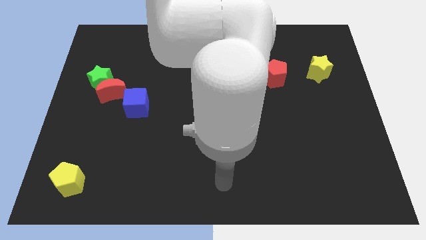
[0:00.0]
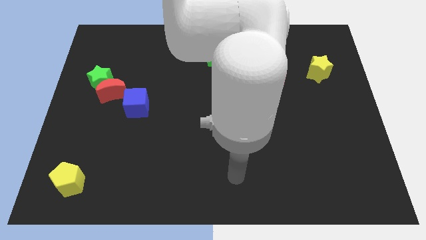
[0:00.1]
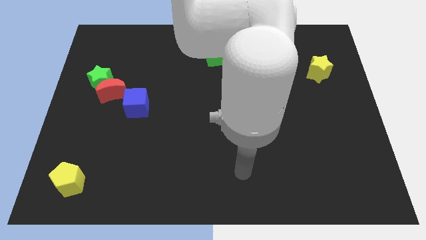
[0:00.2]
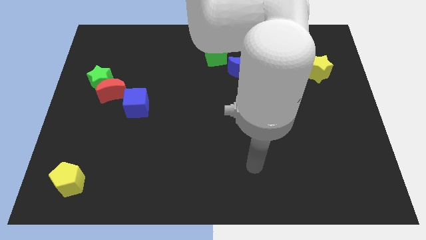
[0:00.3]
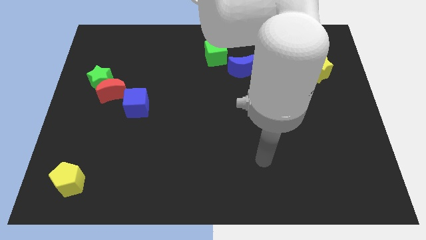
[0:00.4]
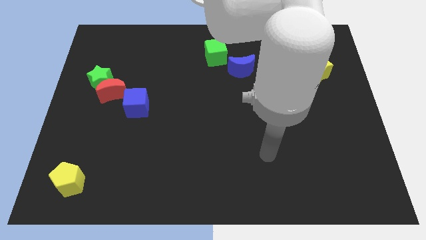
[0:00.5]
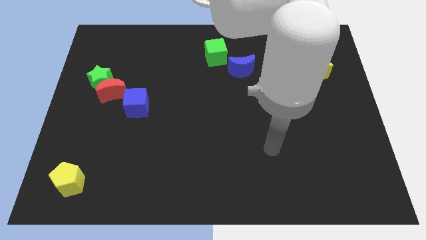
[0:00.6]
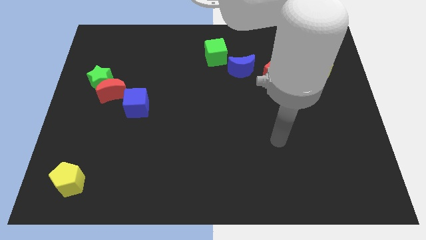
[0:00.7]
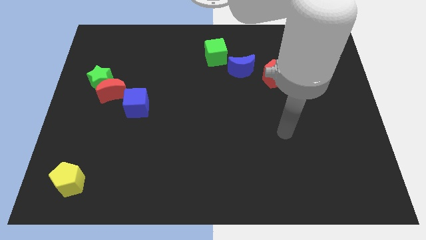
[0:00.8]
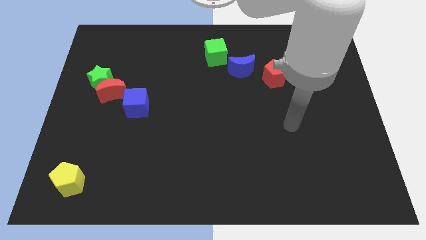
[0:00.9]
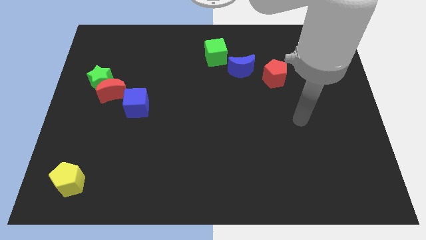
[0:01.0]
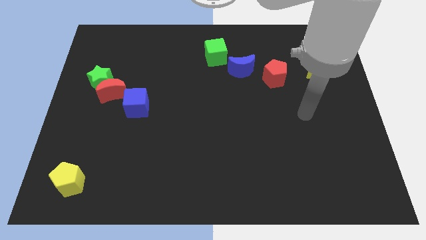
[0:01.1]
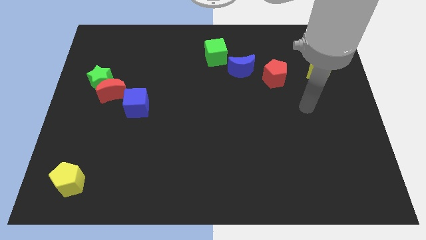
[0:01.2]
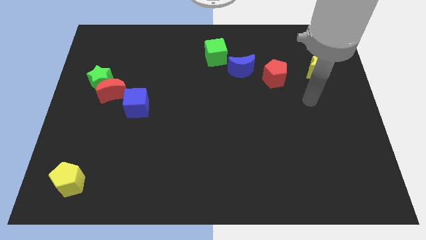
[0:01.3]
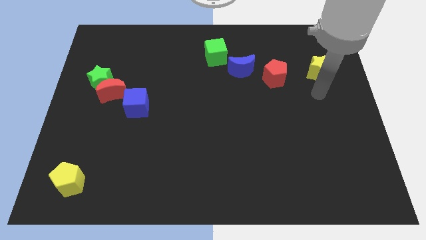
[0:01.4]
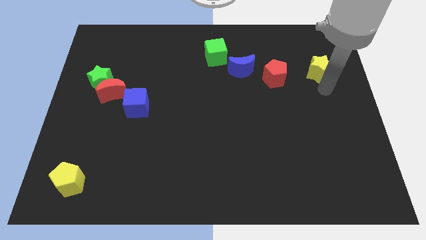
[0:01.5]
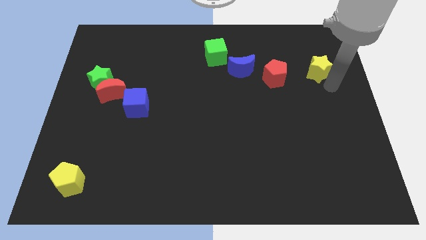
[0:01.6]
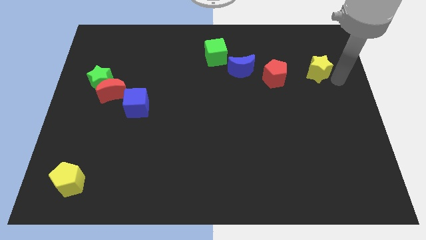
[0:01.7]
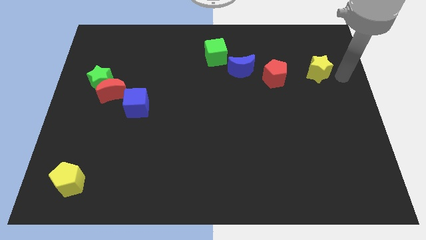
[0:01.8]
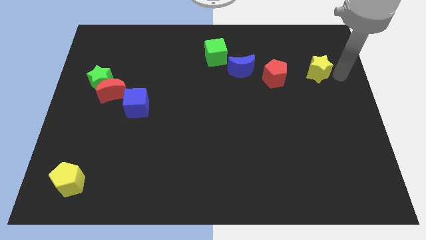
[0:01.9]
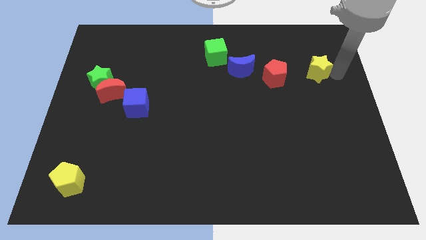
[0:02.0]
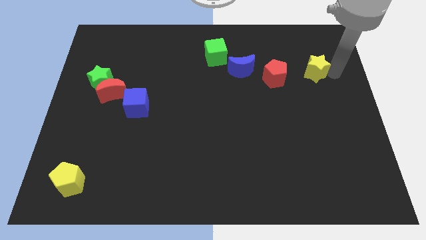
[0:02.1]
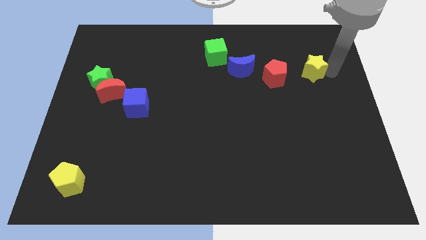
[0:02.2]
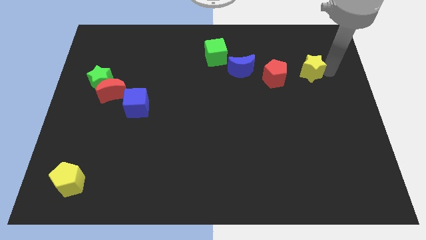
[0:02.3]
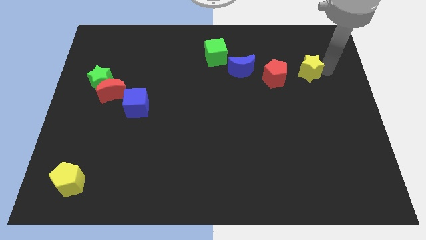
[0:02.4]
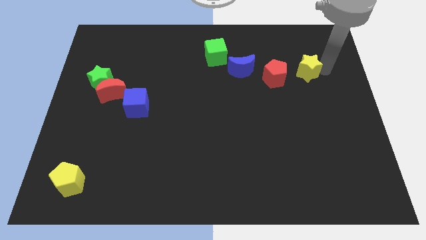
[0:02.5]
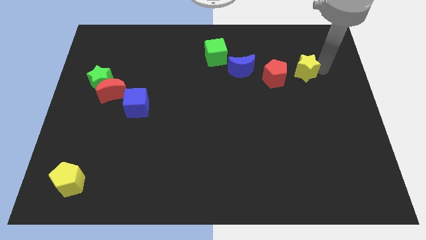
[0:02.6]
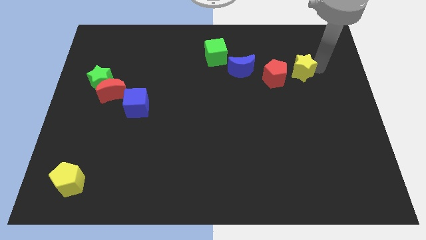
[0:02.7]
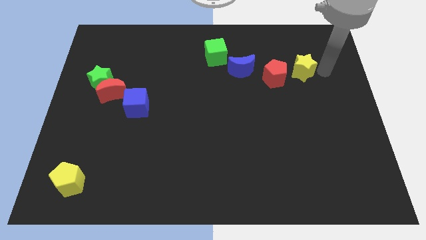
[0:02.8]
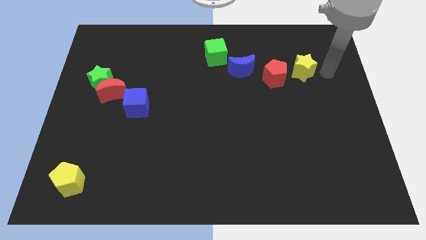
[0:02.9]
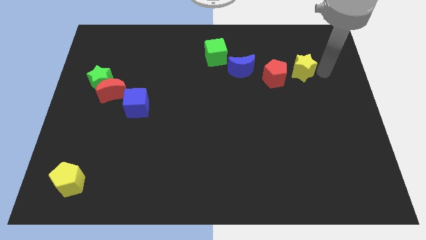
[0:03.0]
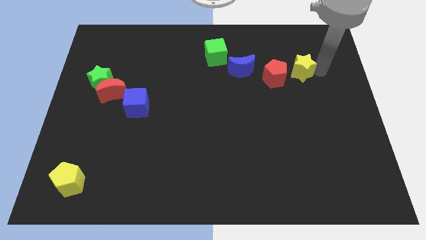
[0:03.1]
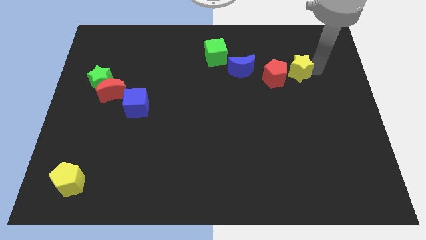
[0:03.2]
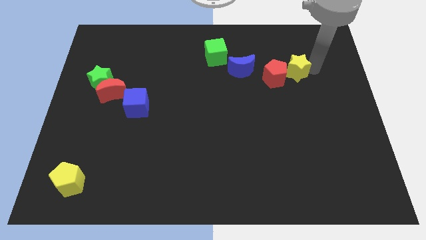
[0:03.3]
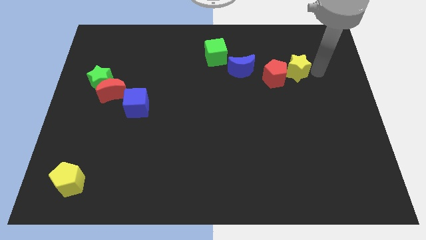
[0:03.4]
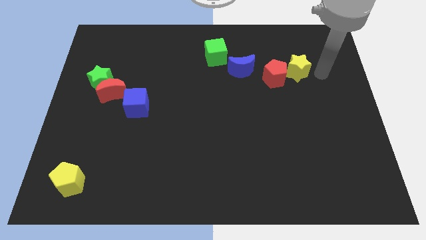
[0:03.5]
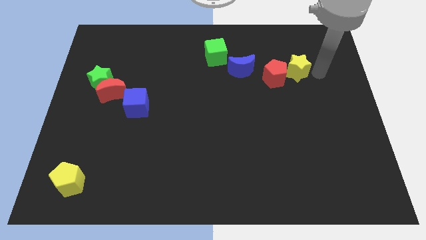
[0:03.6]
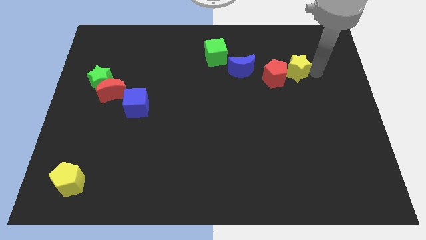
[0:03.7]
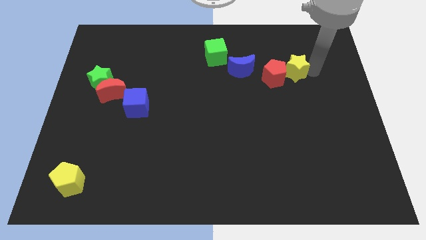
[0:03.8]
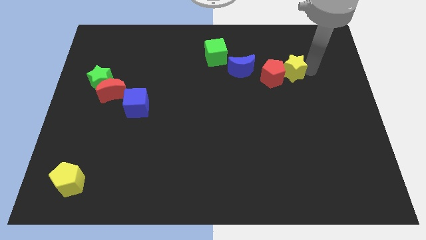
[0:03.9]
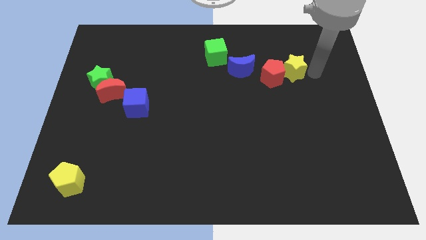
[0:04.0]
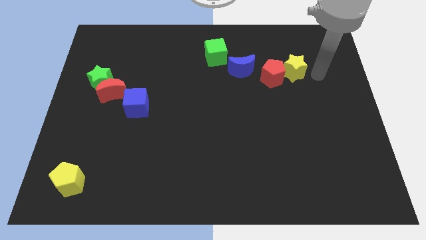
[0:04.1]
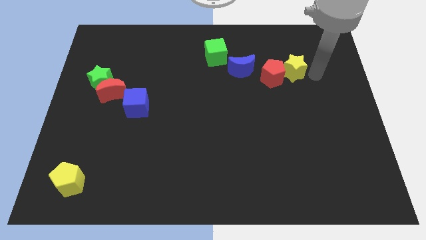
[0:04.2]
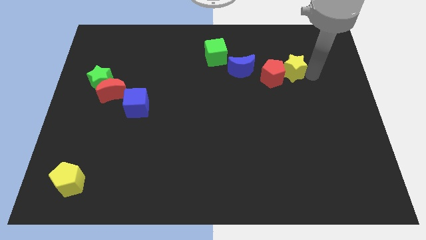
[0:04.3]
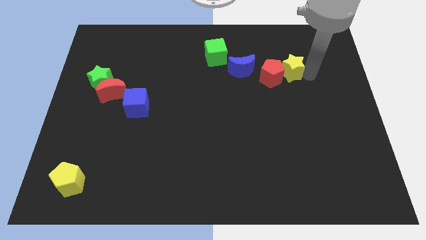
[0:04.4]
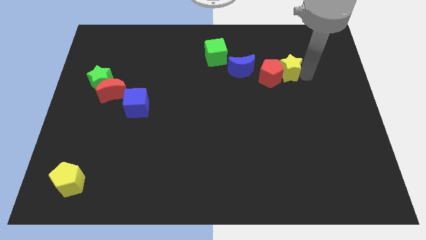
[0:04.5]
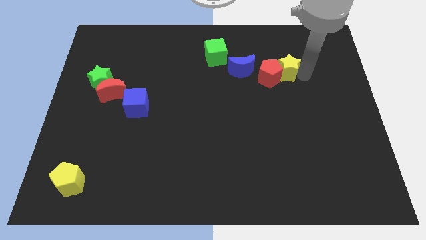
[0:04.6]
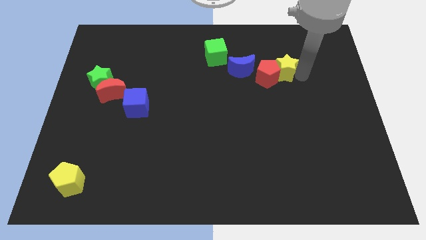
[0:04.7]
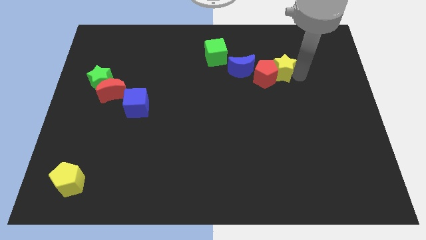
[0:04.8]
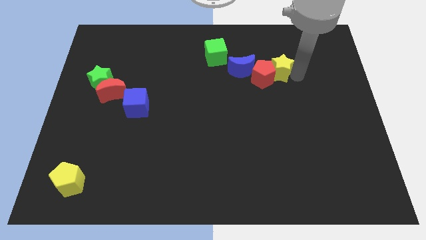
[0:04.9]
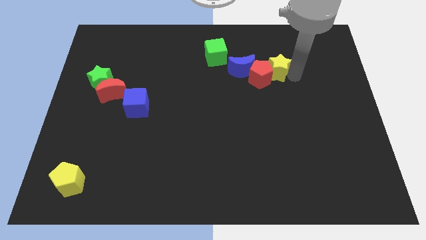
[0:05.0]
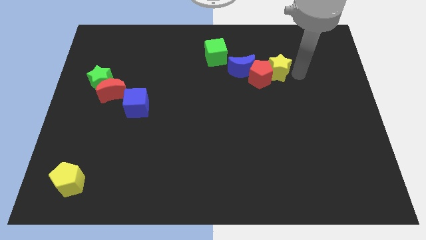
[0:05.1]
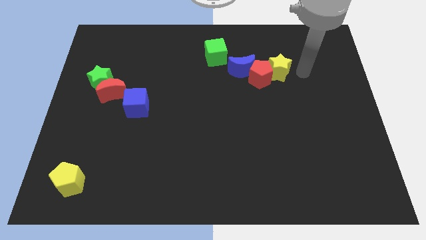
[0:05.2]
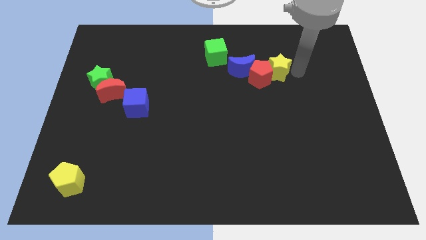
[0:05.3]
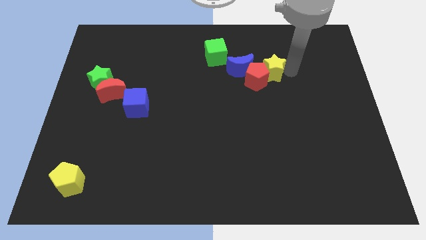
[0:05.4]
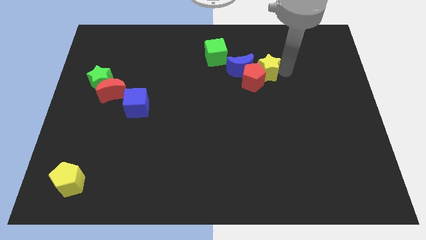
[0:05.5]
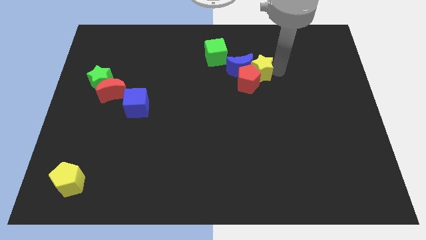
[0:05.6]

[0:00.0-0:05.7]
slide the yellow star to the blue moon

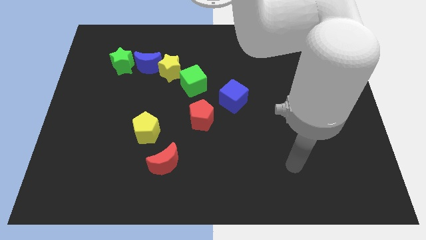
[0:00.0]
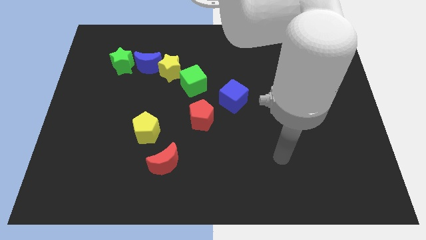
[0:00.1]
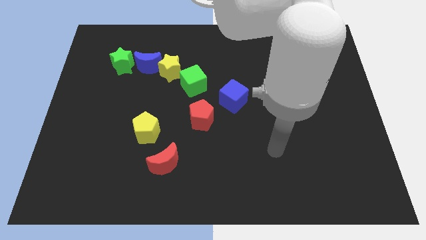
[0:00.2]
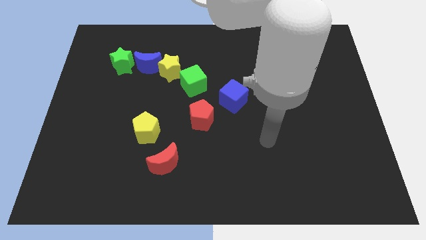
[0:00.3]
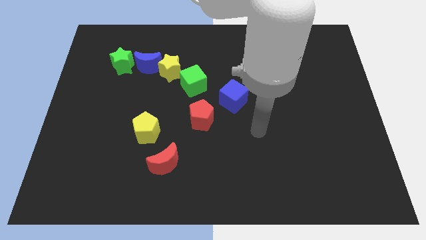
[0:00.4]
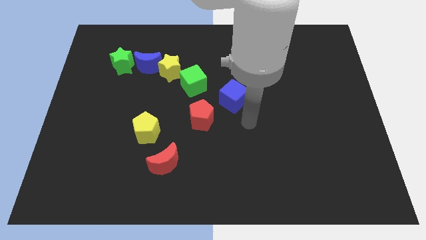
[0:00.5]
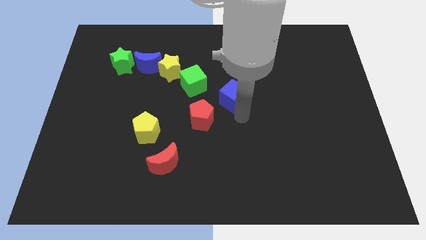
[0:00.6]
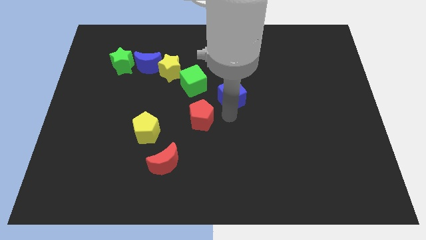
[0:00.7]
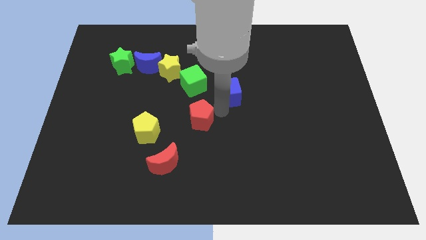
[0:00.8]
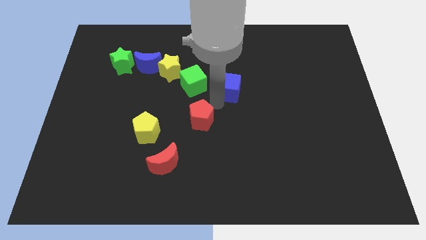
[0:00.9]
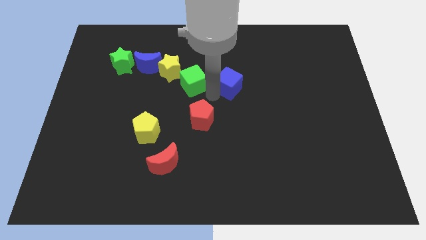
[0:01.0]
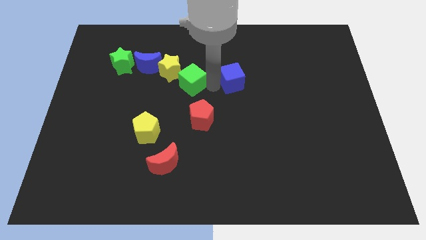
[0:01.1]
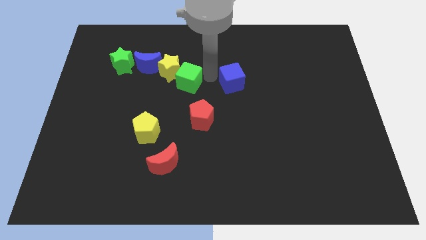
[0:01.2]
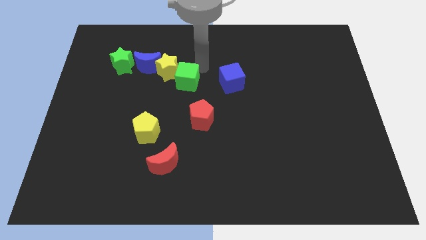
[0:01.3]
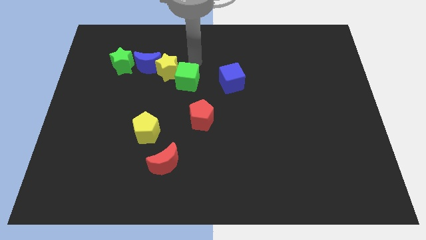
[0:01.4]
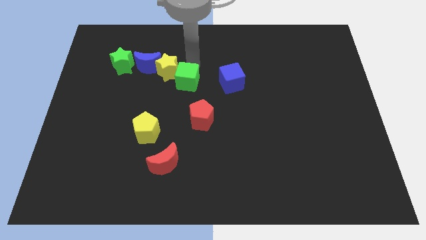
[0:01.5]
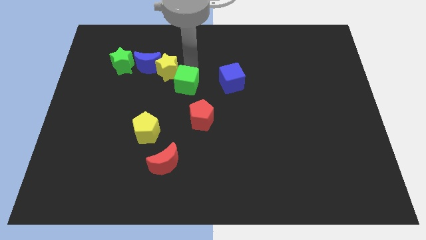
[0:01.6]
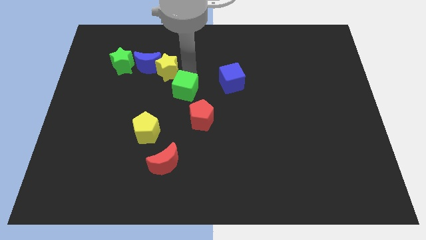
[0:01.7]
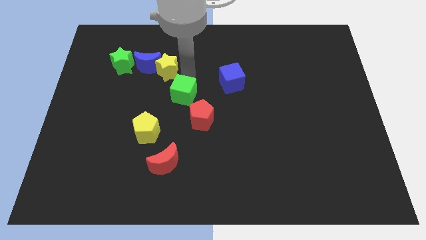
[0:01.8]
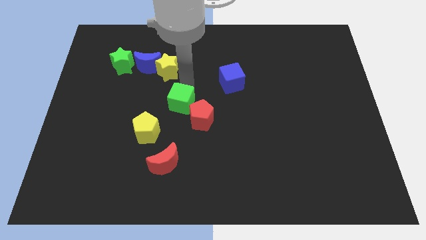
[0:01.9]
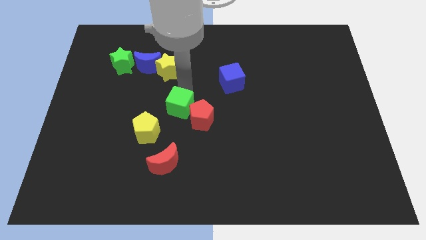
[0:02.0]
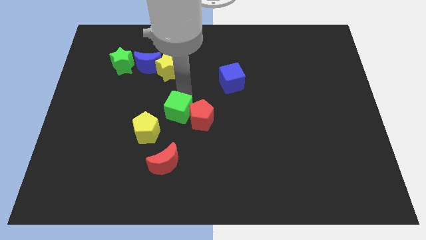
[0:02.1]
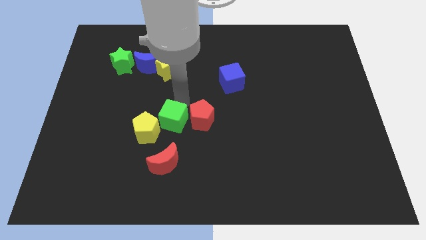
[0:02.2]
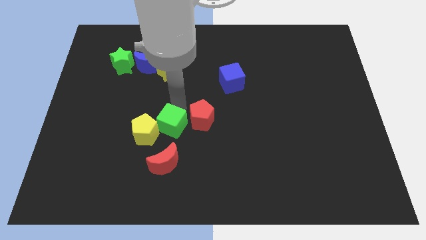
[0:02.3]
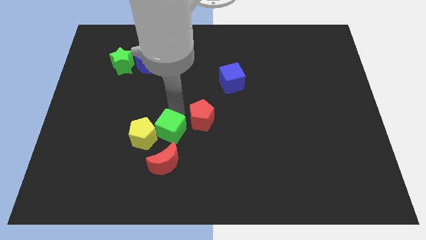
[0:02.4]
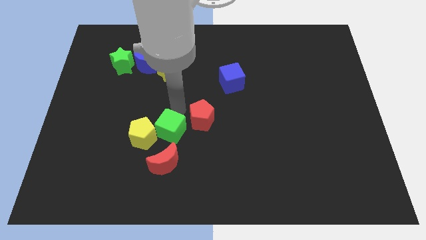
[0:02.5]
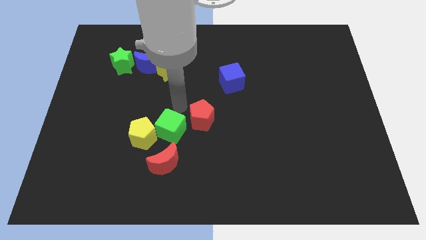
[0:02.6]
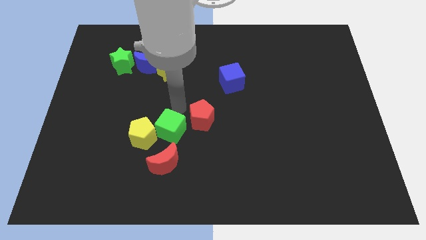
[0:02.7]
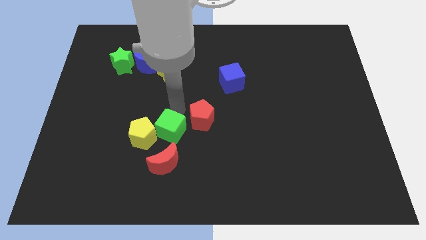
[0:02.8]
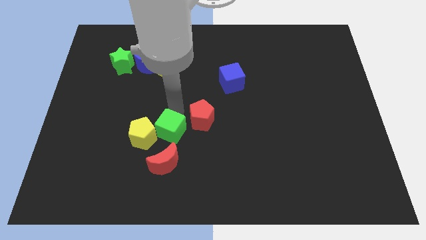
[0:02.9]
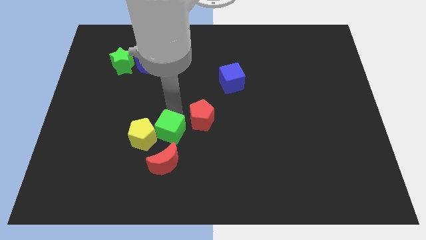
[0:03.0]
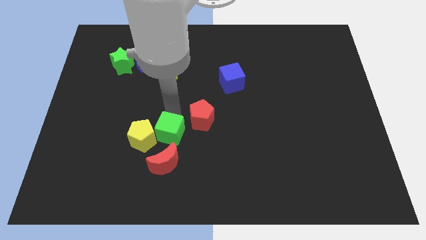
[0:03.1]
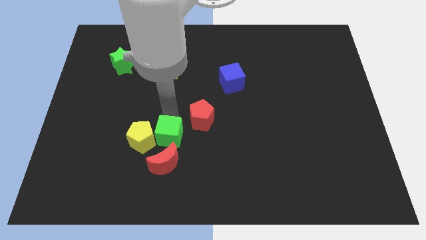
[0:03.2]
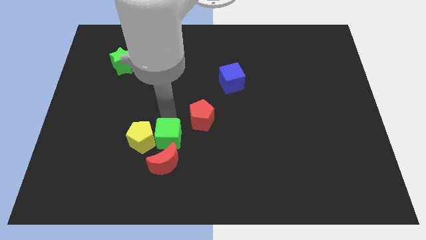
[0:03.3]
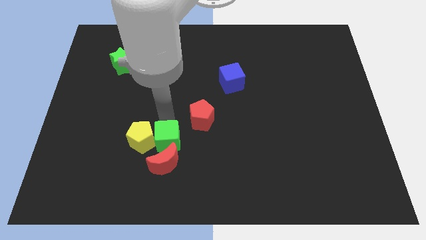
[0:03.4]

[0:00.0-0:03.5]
move the green cube close to the red moon
